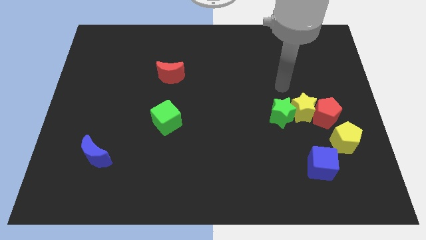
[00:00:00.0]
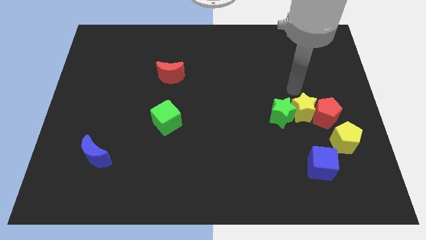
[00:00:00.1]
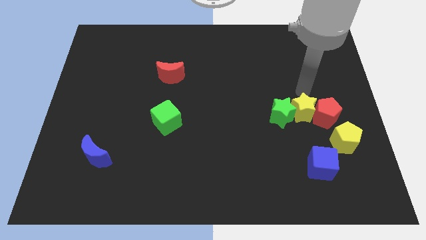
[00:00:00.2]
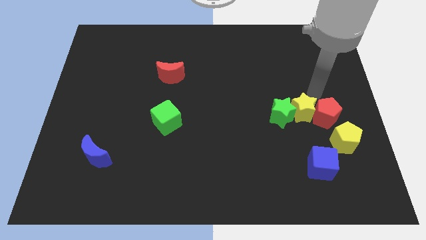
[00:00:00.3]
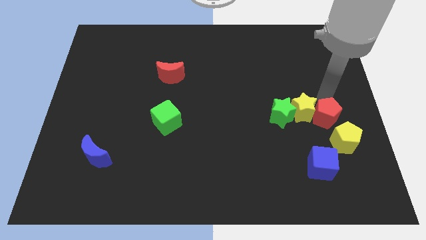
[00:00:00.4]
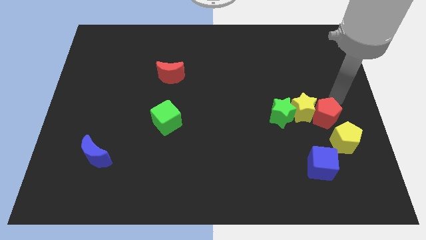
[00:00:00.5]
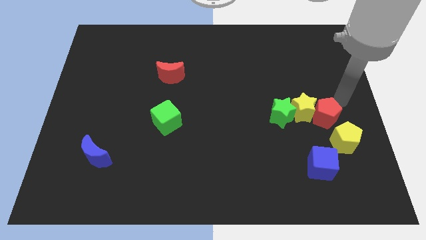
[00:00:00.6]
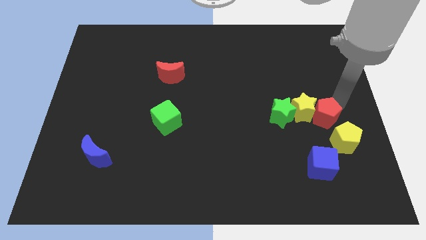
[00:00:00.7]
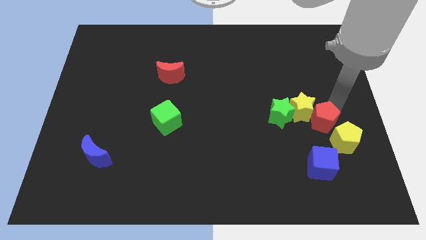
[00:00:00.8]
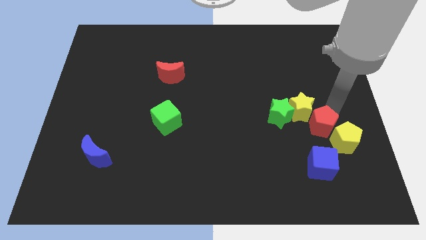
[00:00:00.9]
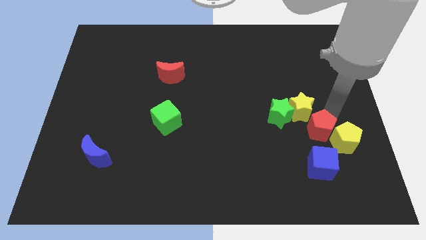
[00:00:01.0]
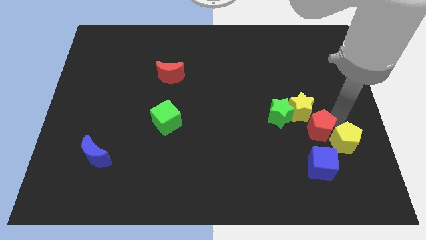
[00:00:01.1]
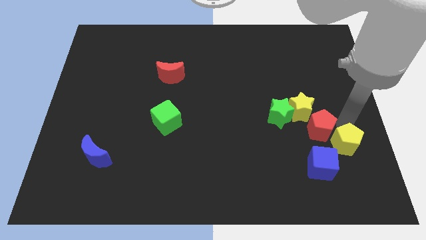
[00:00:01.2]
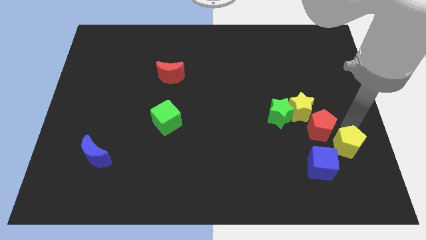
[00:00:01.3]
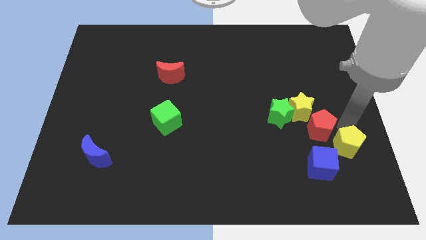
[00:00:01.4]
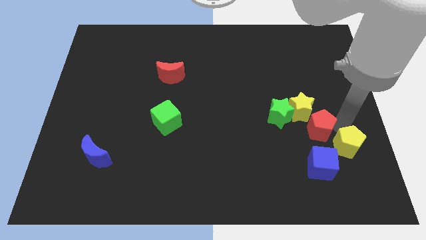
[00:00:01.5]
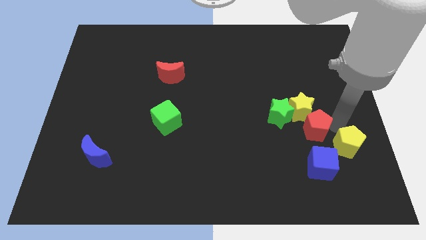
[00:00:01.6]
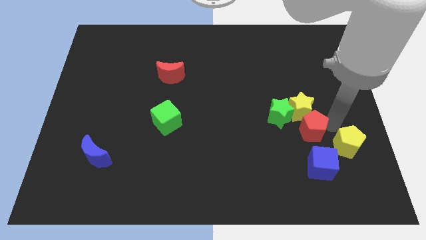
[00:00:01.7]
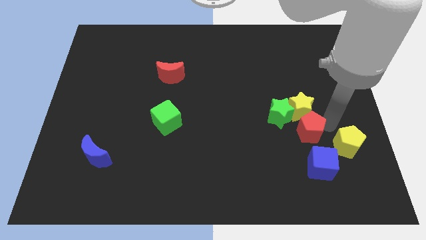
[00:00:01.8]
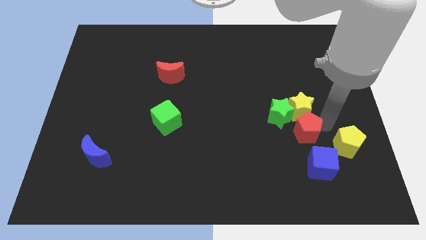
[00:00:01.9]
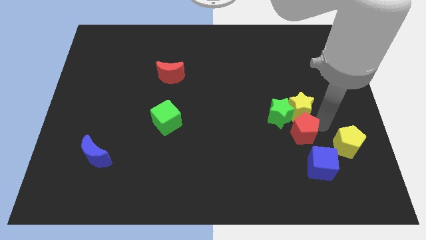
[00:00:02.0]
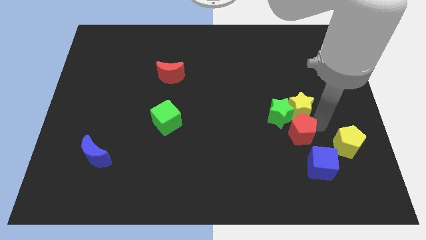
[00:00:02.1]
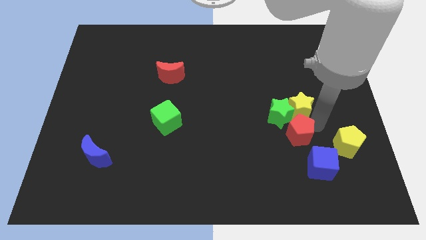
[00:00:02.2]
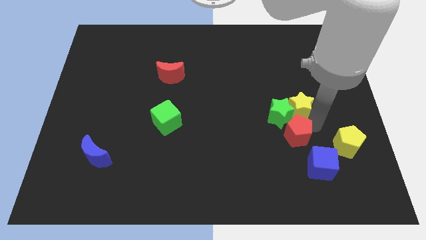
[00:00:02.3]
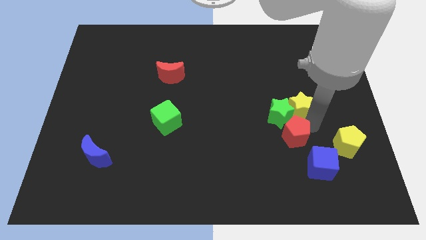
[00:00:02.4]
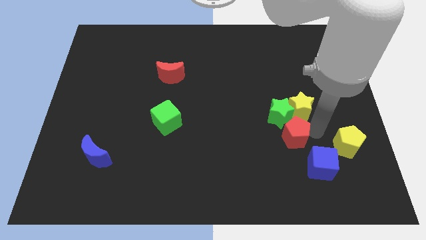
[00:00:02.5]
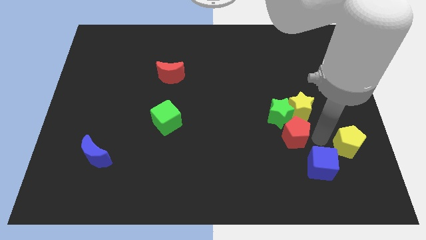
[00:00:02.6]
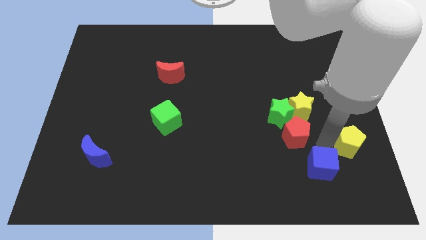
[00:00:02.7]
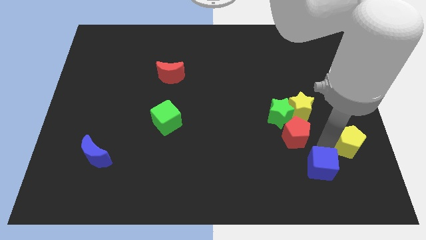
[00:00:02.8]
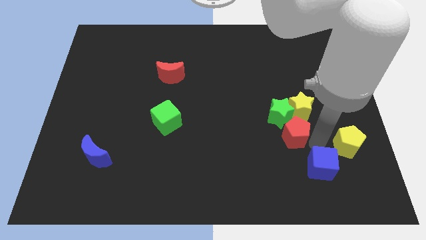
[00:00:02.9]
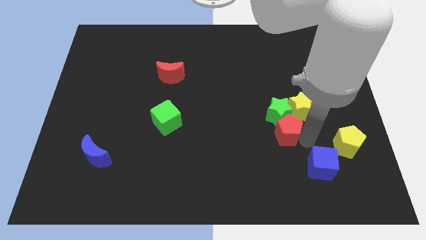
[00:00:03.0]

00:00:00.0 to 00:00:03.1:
move the red pentagon a little to the left

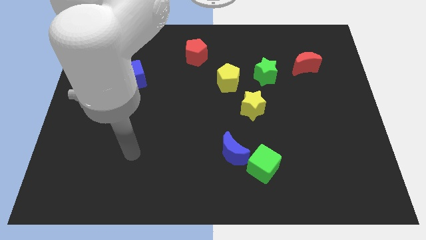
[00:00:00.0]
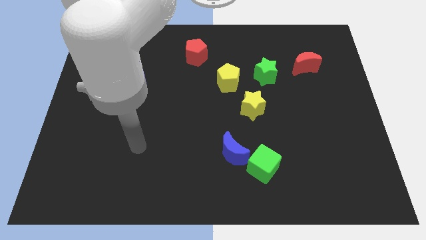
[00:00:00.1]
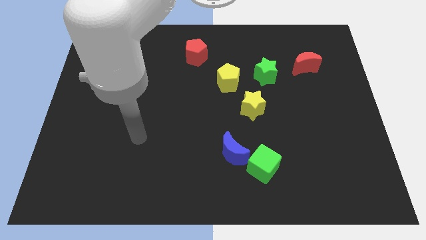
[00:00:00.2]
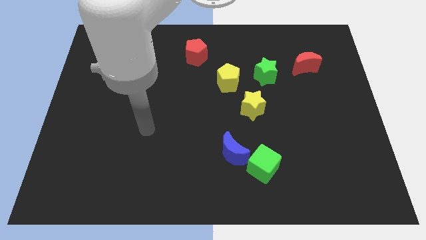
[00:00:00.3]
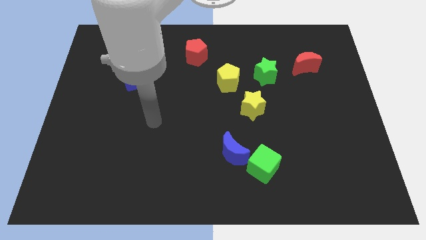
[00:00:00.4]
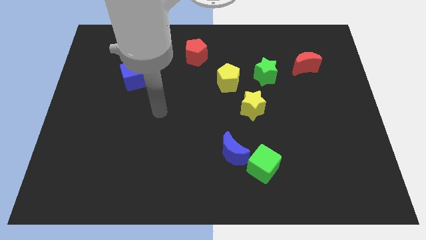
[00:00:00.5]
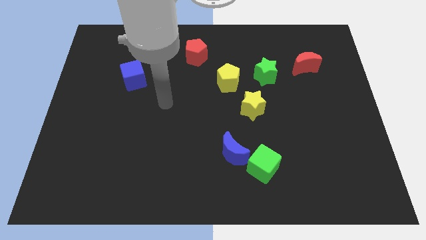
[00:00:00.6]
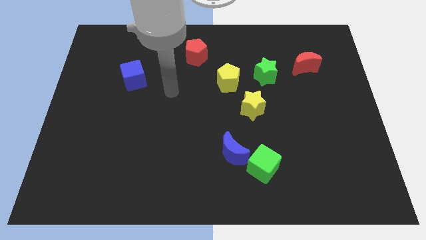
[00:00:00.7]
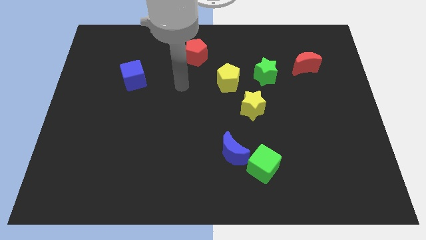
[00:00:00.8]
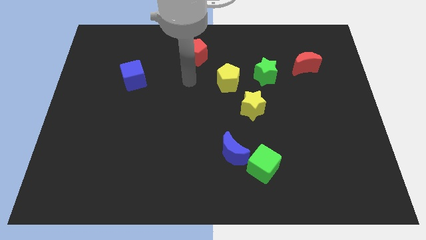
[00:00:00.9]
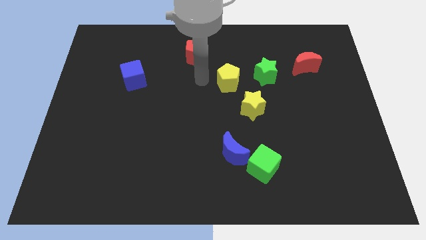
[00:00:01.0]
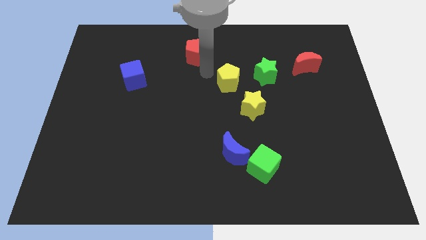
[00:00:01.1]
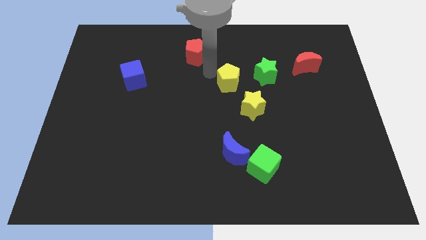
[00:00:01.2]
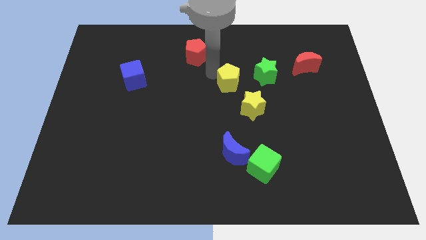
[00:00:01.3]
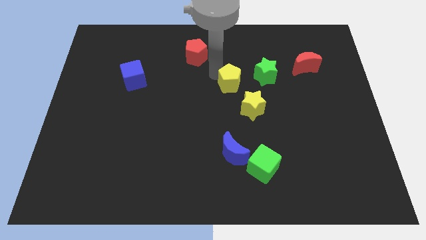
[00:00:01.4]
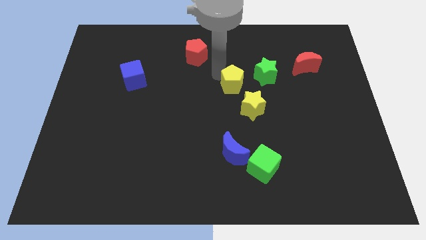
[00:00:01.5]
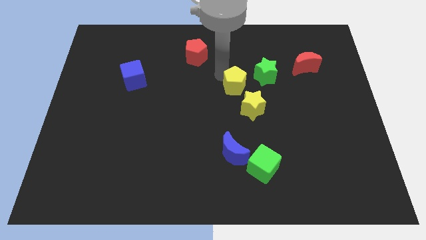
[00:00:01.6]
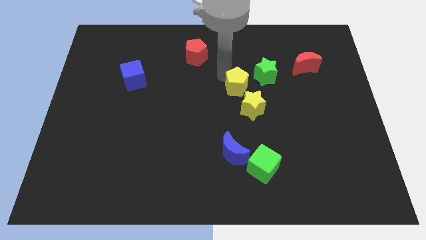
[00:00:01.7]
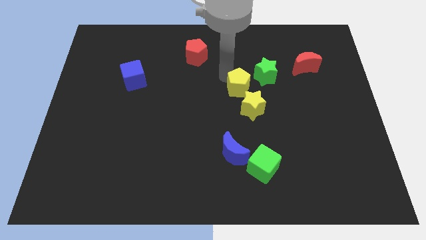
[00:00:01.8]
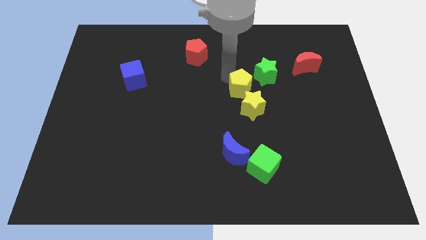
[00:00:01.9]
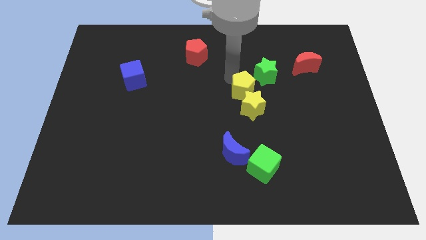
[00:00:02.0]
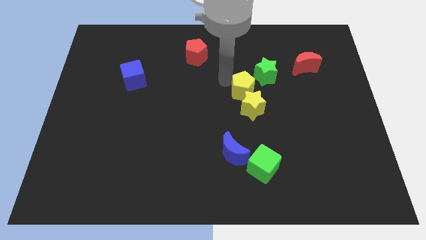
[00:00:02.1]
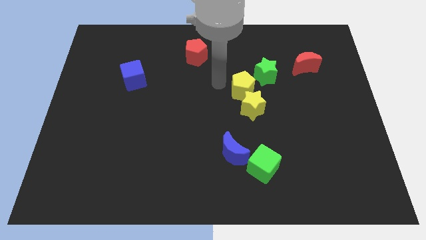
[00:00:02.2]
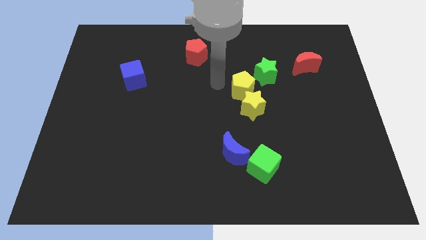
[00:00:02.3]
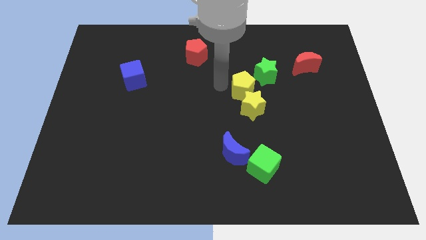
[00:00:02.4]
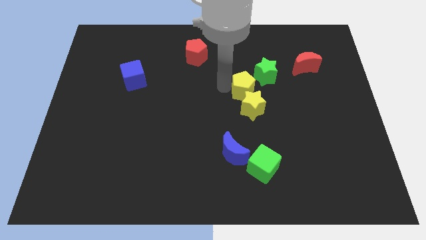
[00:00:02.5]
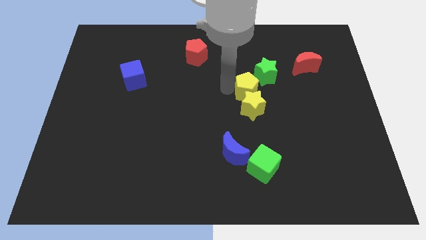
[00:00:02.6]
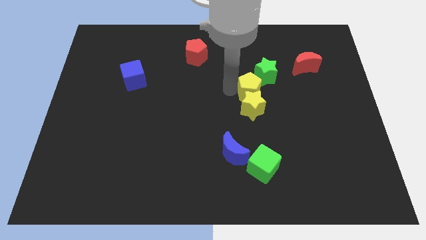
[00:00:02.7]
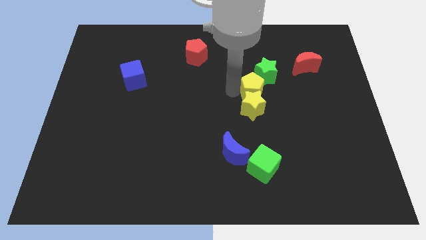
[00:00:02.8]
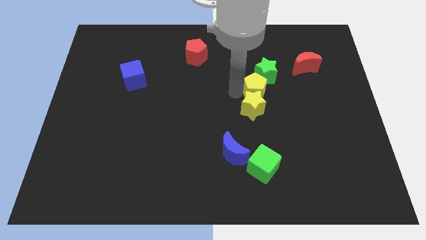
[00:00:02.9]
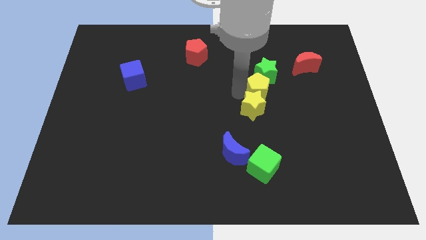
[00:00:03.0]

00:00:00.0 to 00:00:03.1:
slightly move the yellow pentagon right

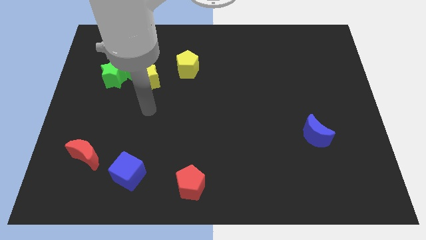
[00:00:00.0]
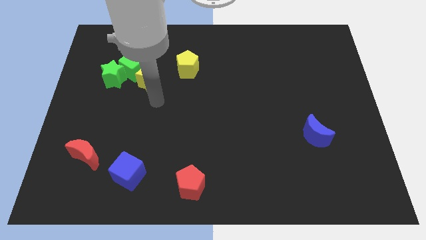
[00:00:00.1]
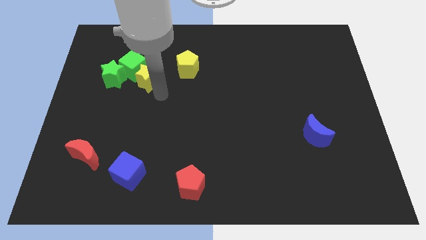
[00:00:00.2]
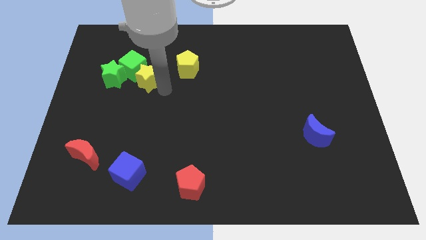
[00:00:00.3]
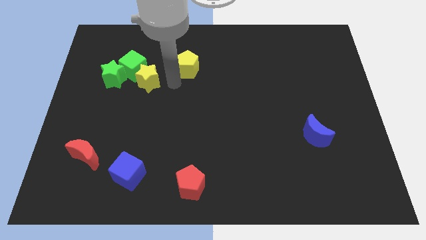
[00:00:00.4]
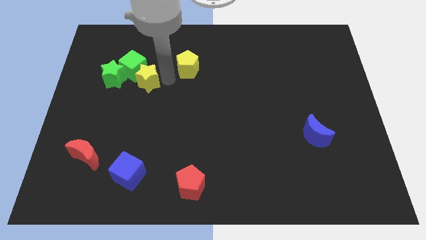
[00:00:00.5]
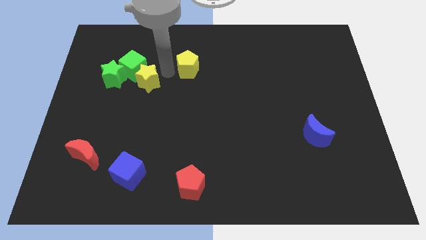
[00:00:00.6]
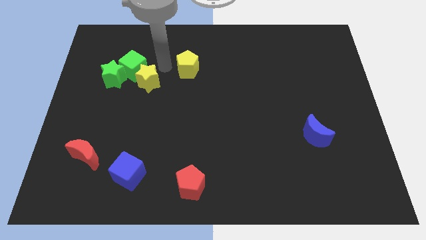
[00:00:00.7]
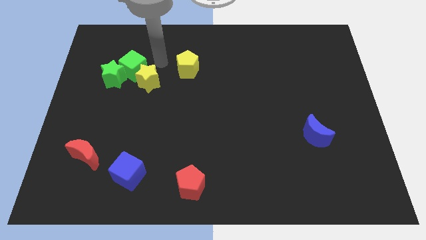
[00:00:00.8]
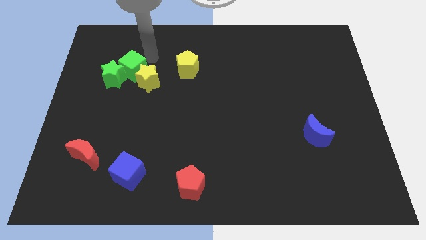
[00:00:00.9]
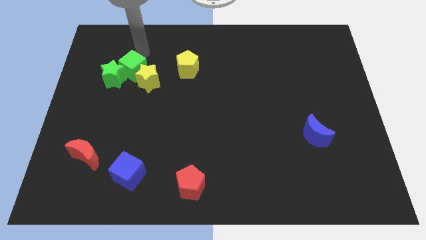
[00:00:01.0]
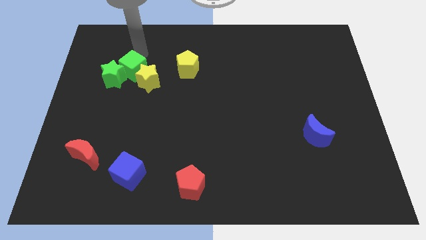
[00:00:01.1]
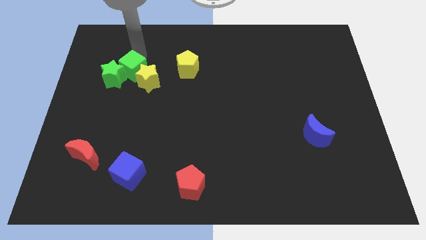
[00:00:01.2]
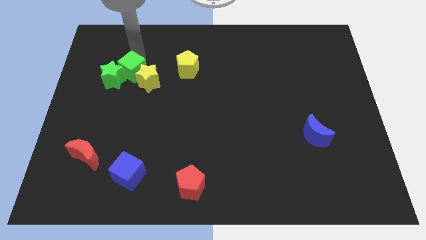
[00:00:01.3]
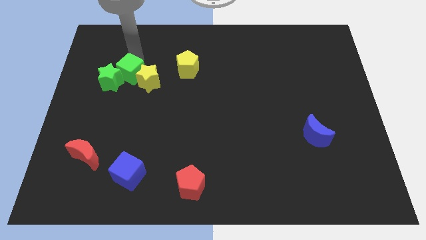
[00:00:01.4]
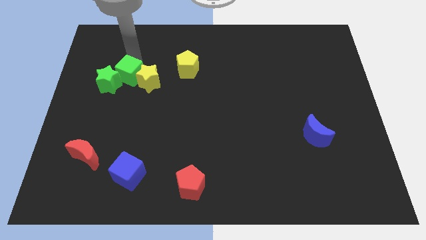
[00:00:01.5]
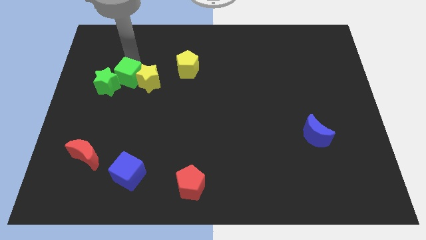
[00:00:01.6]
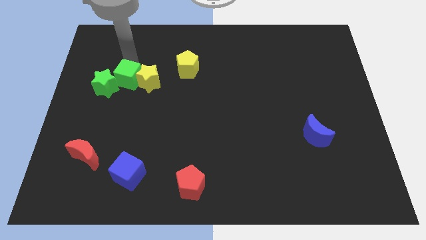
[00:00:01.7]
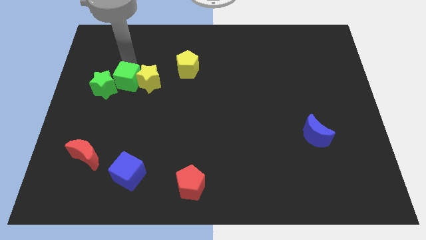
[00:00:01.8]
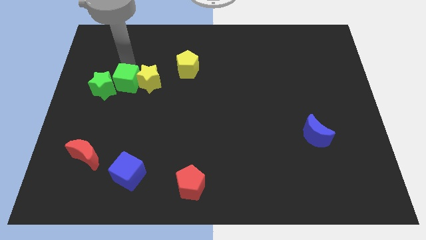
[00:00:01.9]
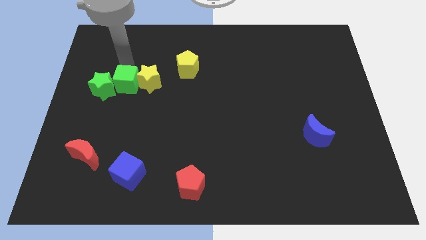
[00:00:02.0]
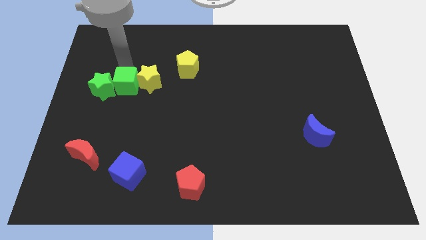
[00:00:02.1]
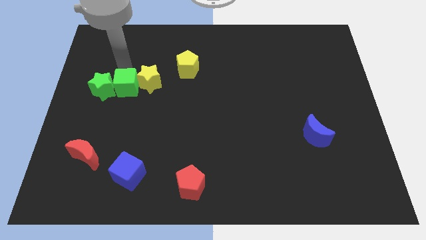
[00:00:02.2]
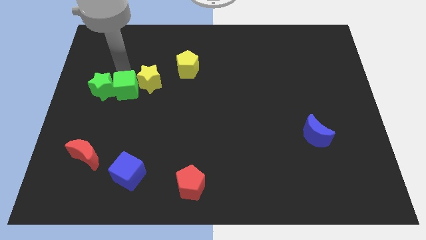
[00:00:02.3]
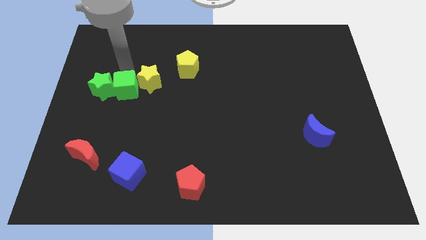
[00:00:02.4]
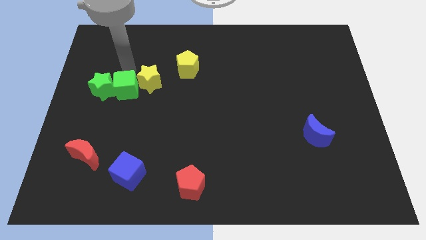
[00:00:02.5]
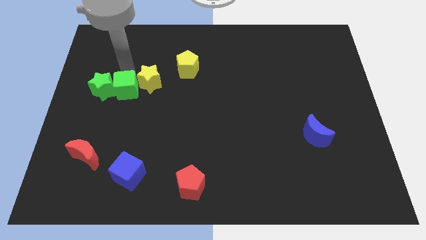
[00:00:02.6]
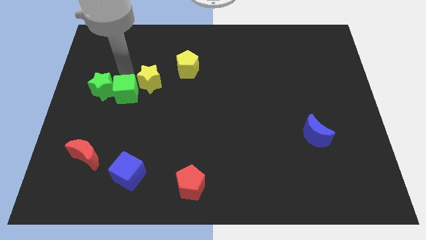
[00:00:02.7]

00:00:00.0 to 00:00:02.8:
slide the green cube down a little
